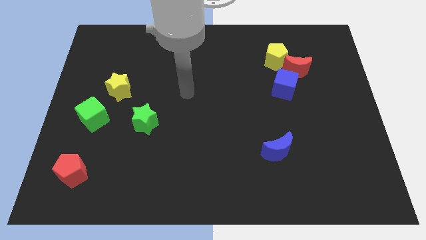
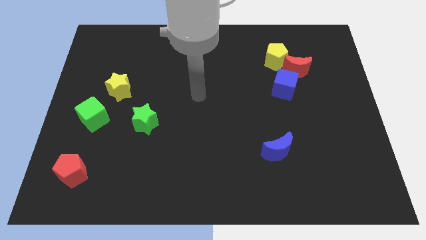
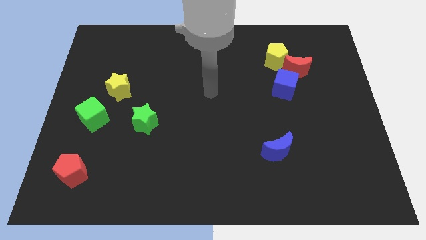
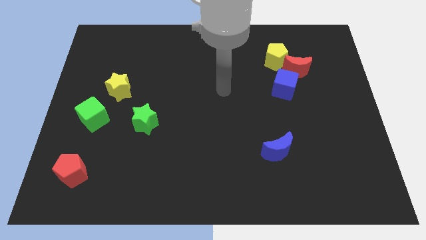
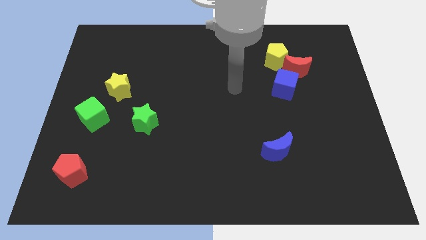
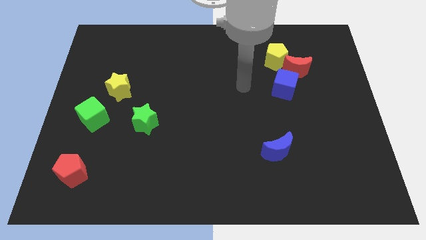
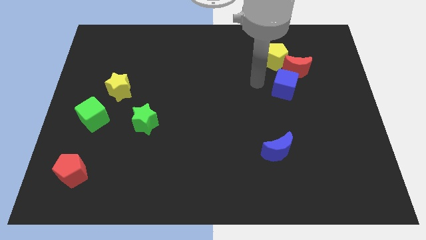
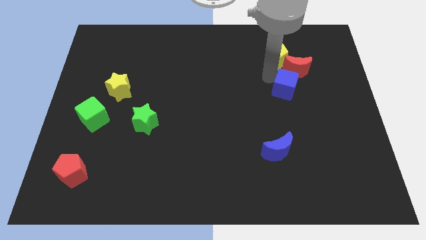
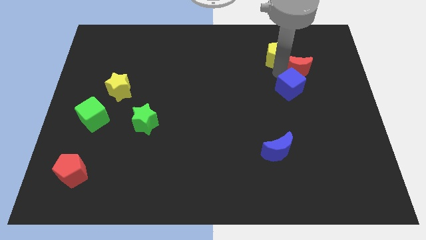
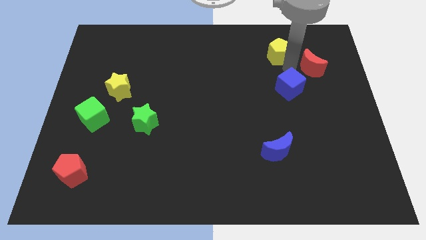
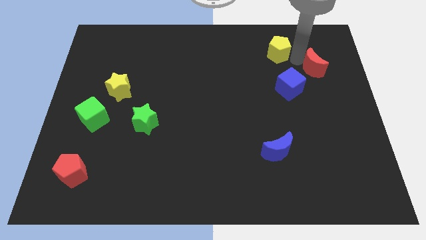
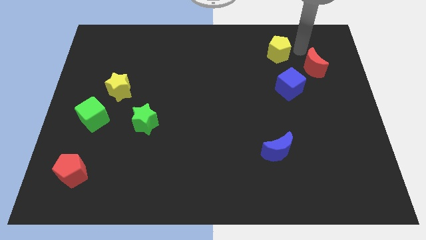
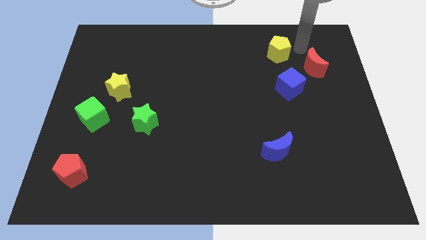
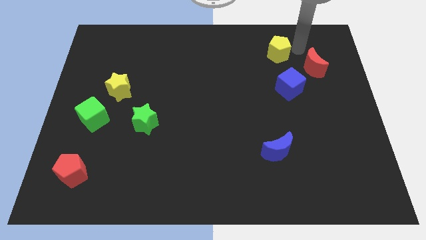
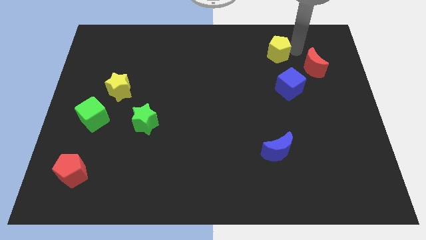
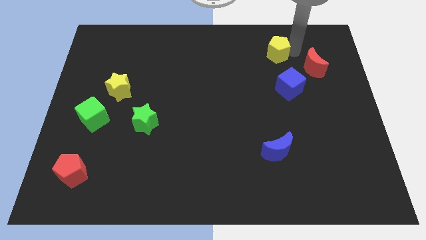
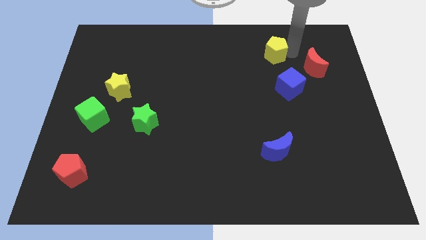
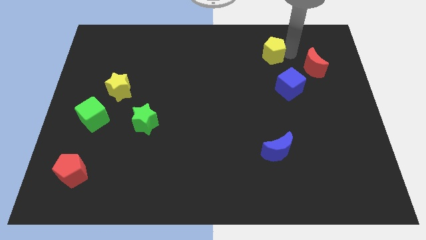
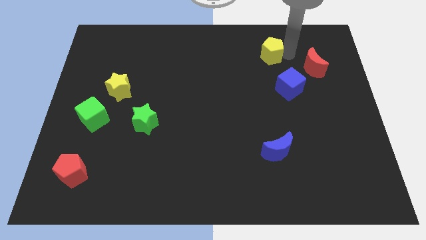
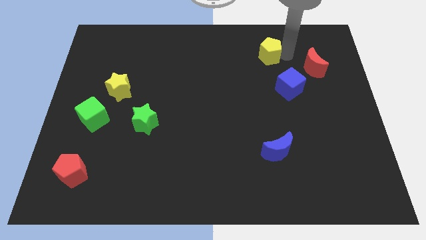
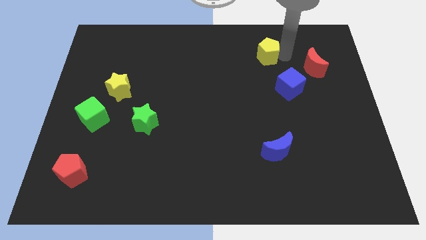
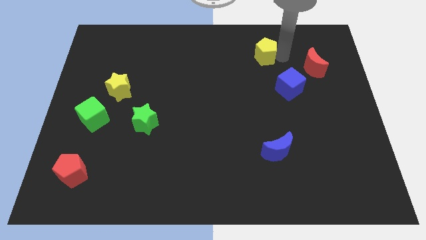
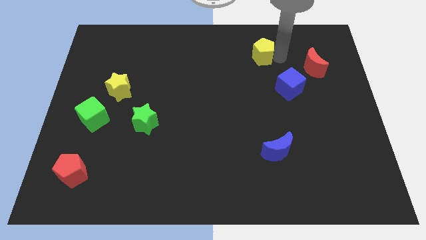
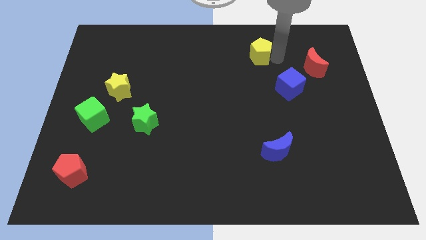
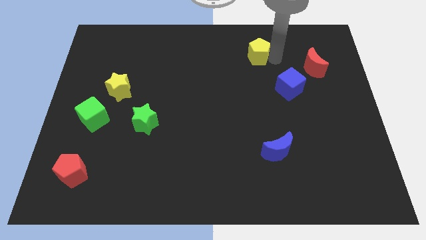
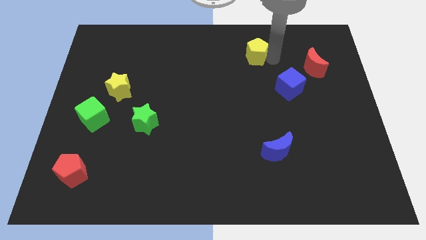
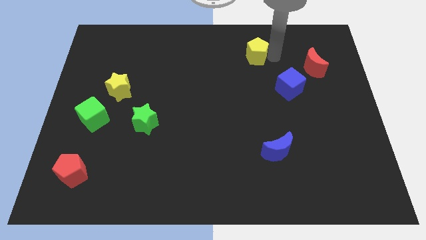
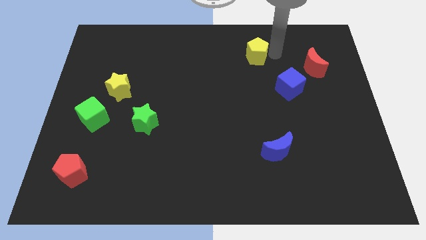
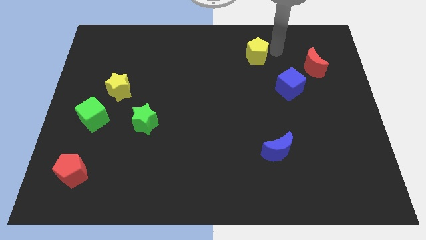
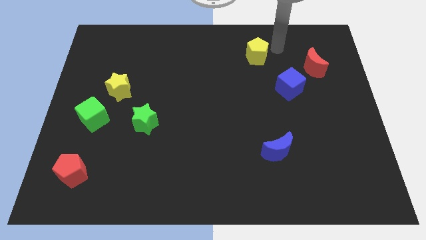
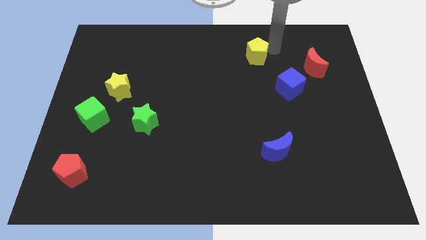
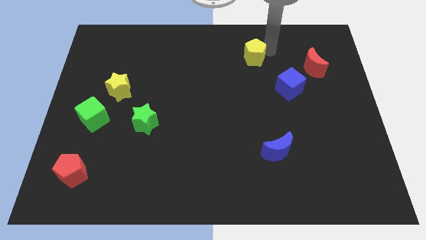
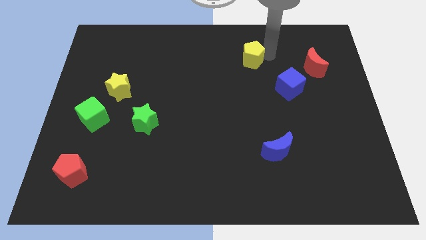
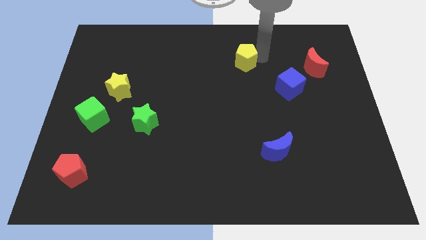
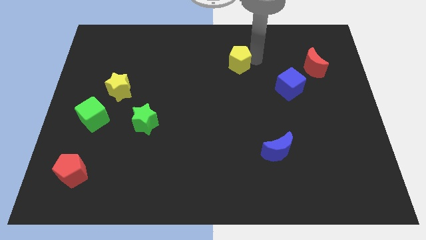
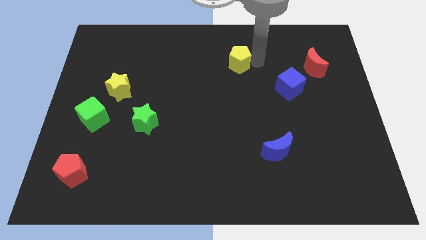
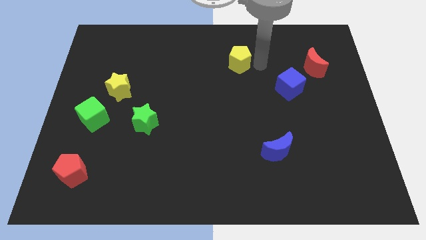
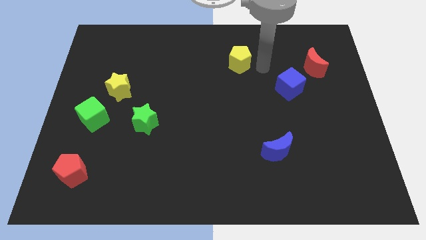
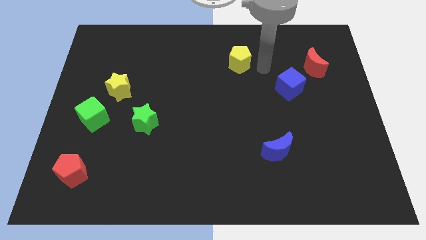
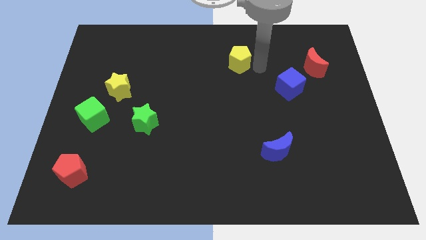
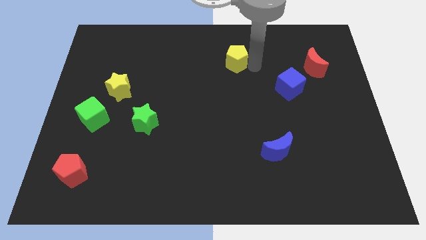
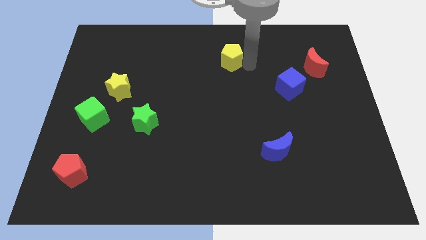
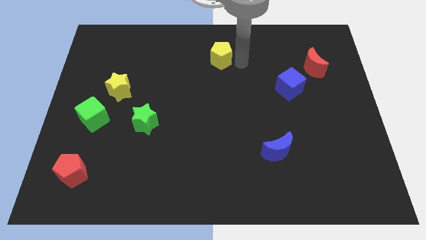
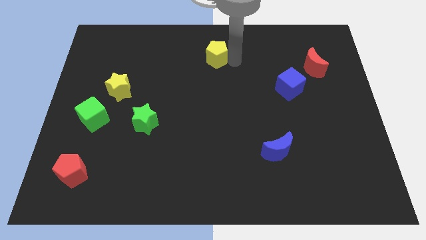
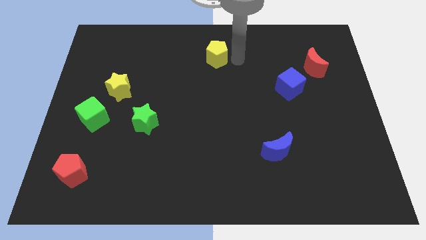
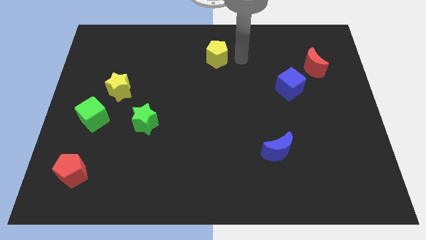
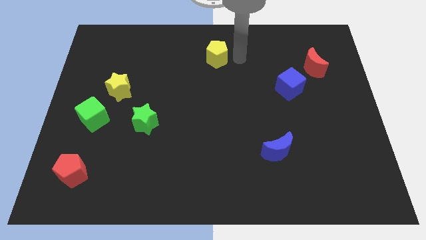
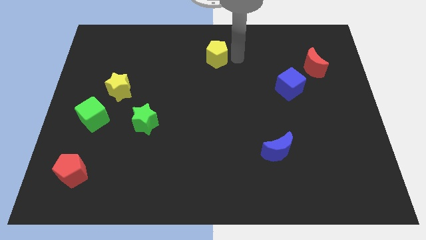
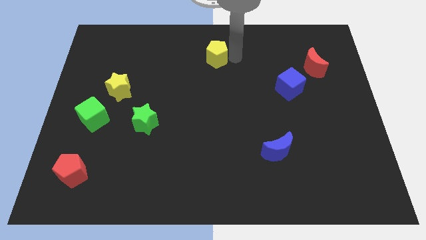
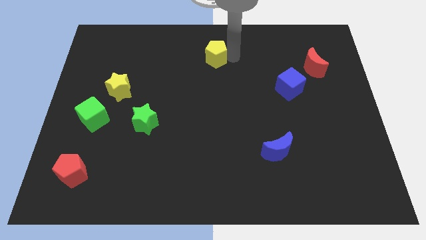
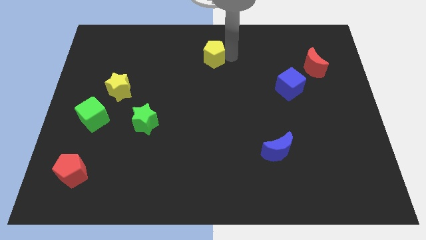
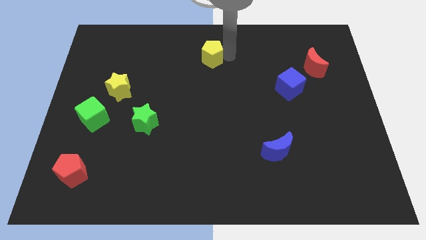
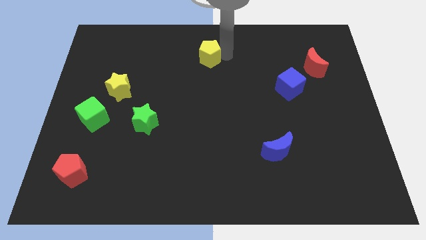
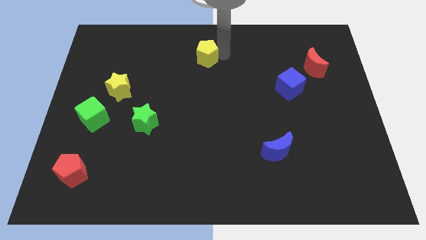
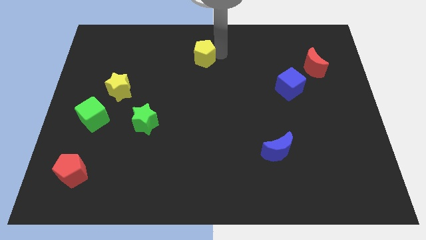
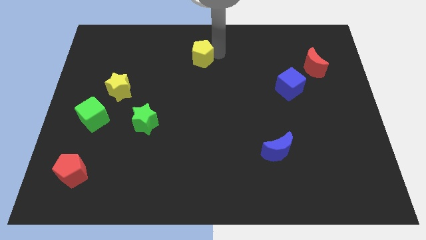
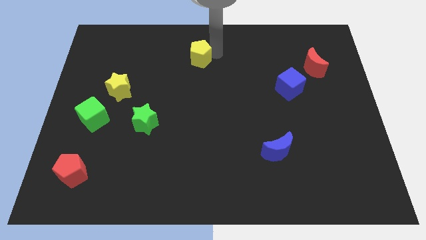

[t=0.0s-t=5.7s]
push the yellow pentagon left

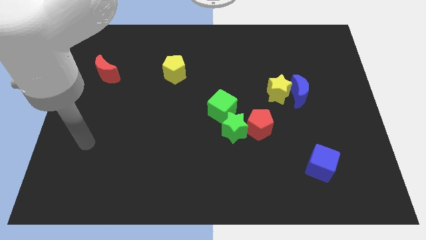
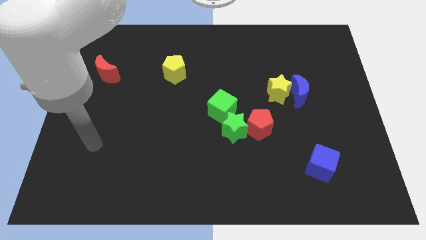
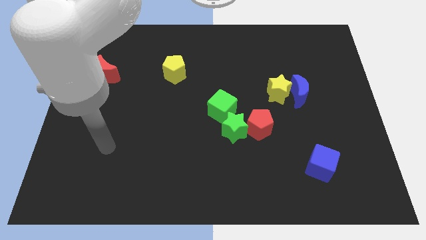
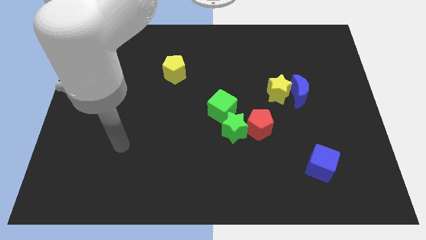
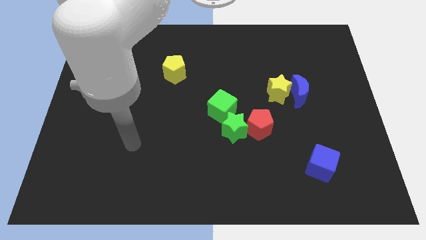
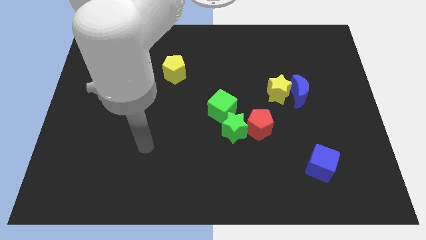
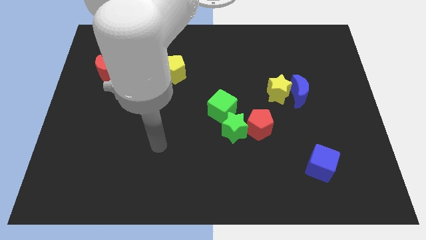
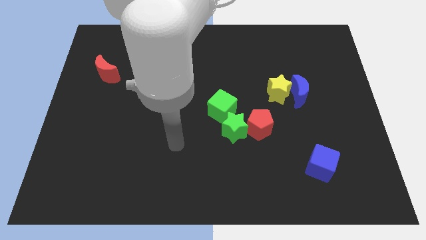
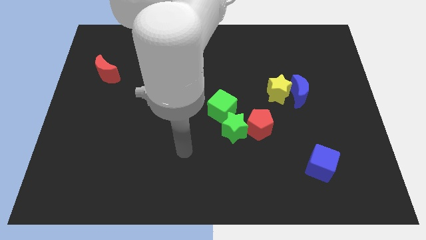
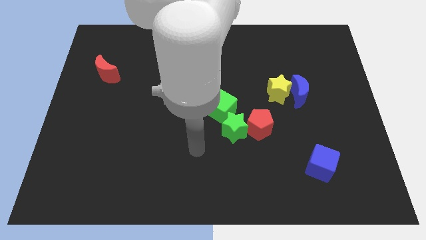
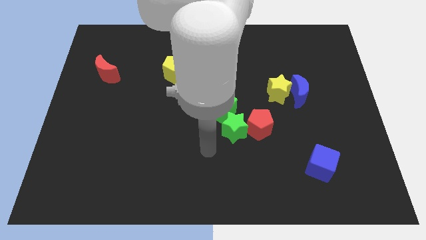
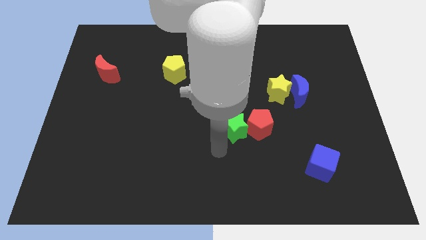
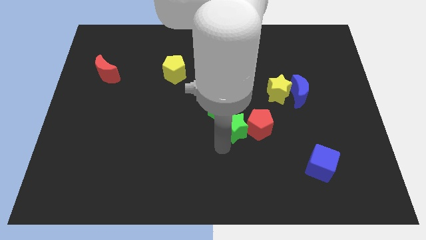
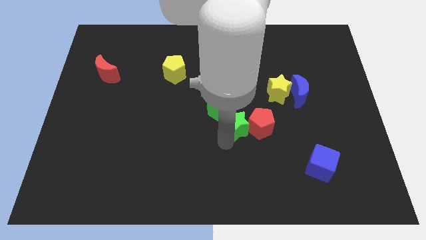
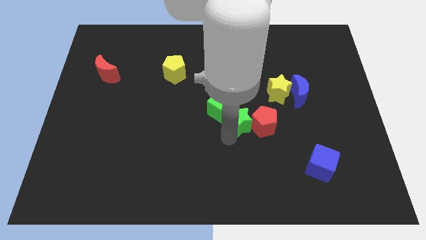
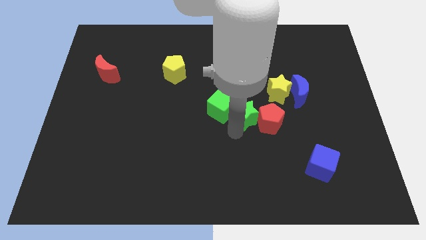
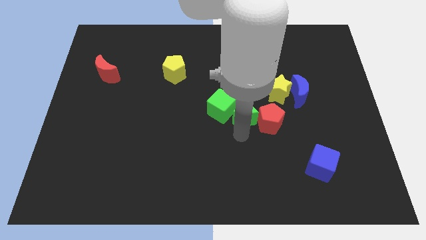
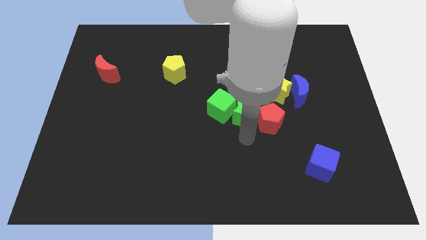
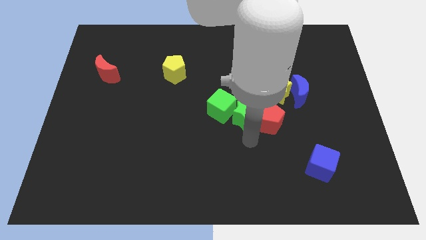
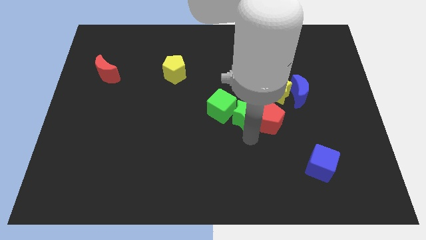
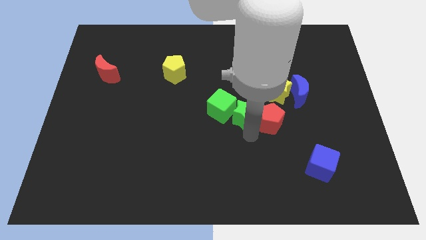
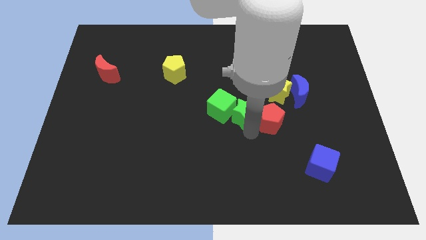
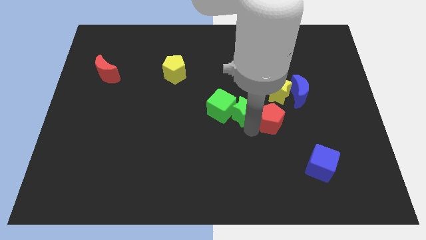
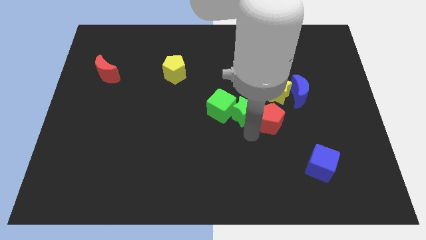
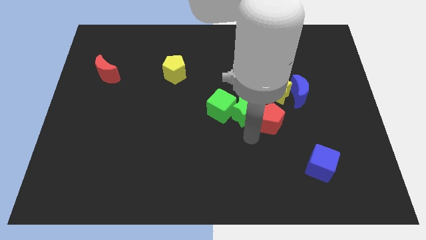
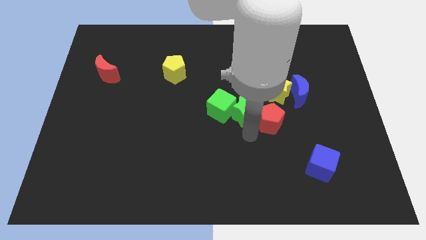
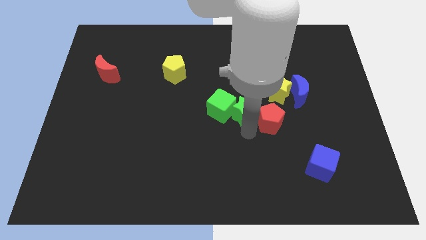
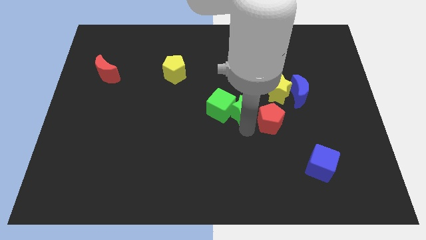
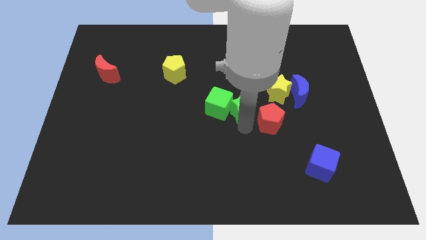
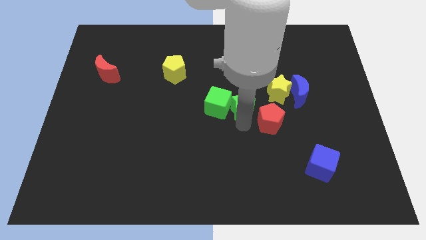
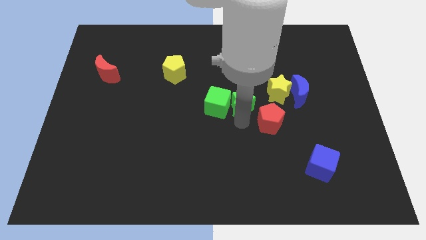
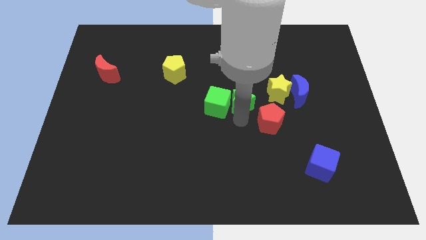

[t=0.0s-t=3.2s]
slide the green star up slightly
